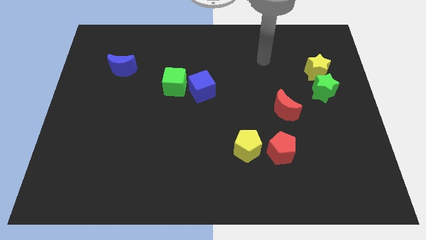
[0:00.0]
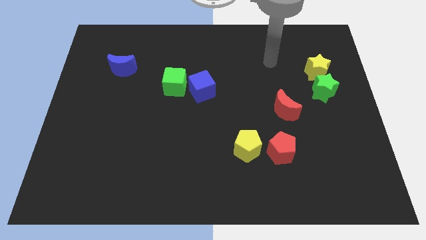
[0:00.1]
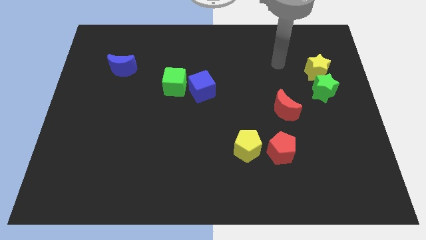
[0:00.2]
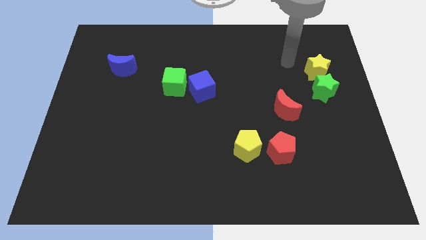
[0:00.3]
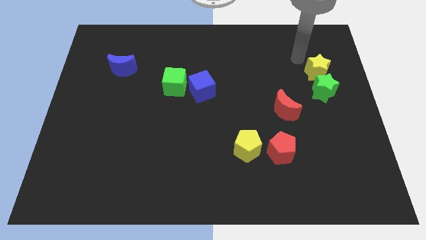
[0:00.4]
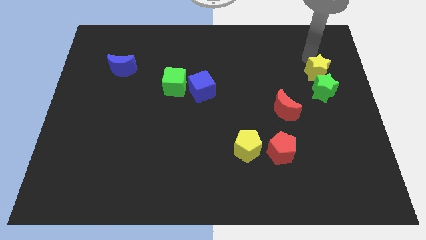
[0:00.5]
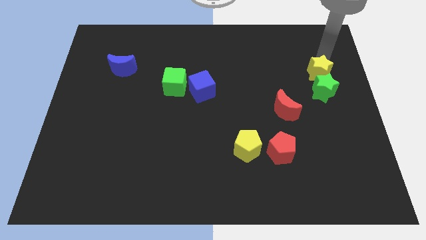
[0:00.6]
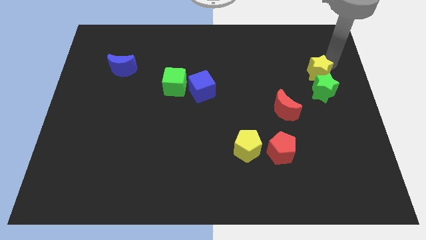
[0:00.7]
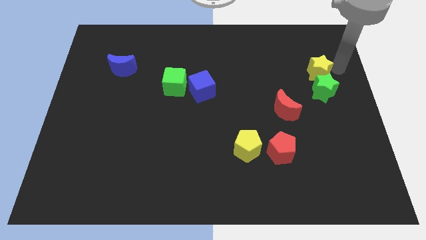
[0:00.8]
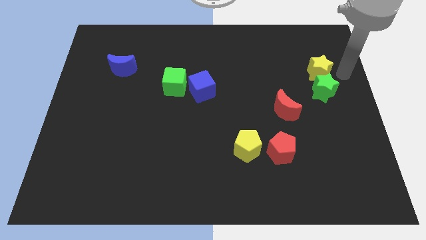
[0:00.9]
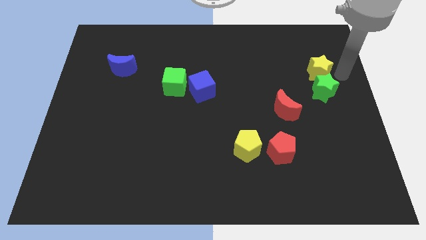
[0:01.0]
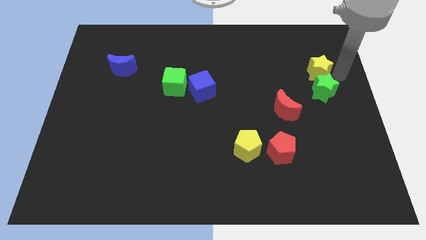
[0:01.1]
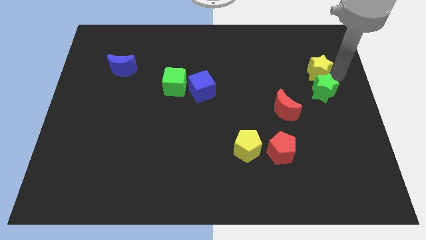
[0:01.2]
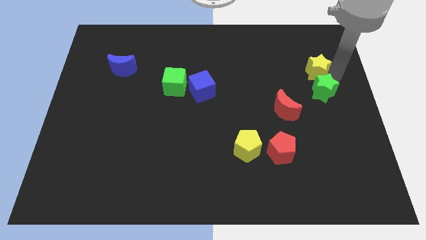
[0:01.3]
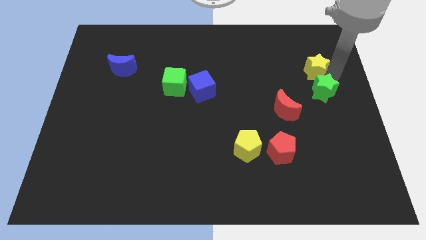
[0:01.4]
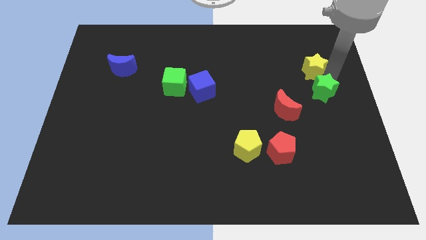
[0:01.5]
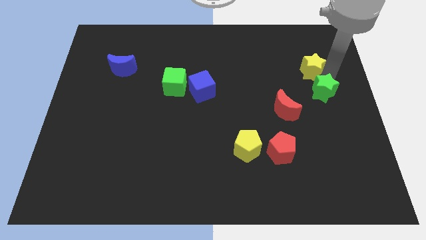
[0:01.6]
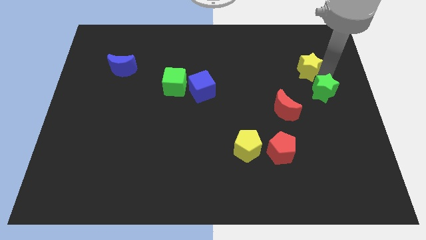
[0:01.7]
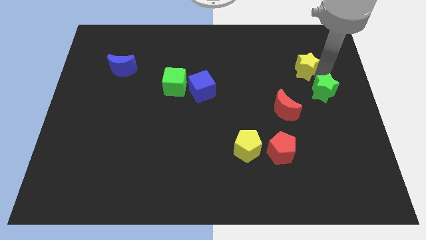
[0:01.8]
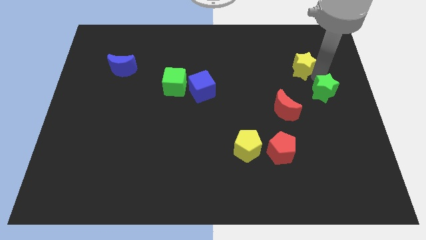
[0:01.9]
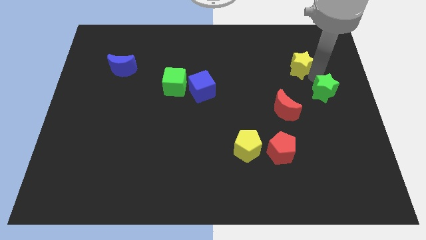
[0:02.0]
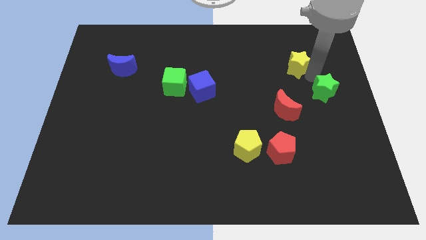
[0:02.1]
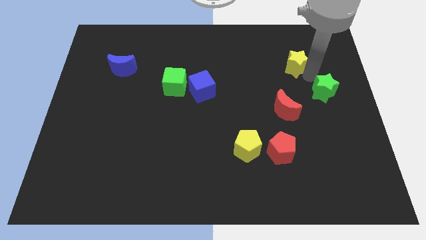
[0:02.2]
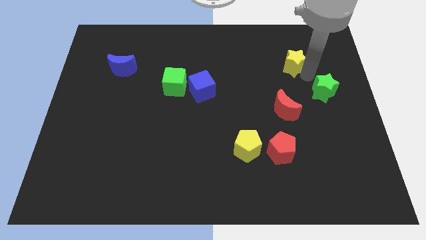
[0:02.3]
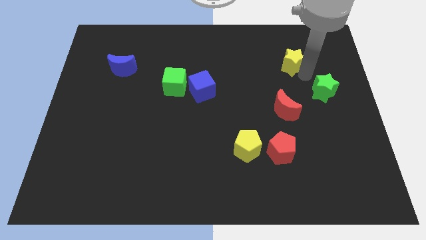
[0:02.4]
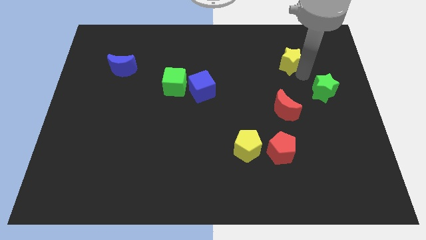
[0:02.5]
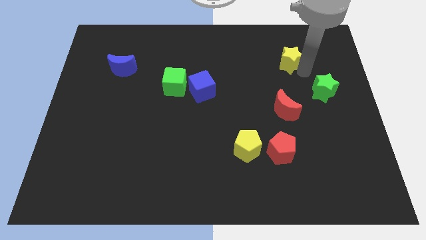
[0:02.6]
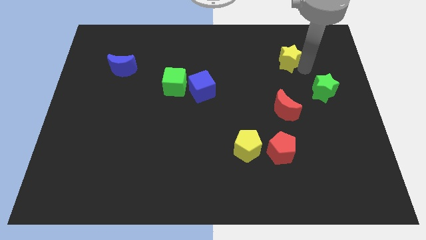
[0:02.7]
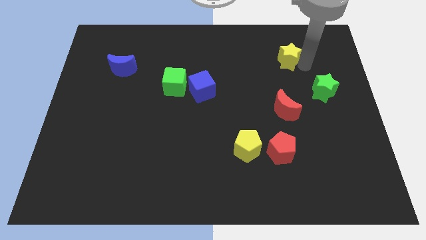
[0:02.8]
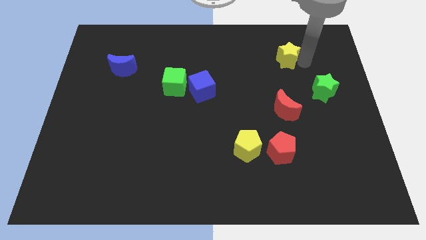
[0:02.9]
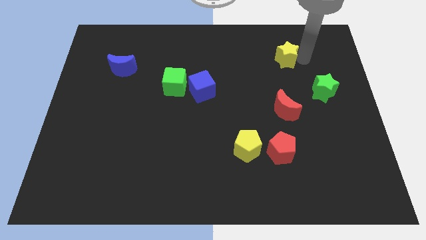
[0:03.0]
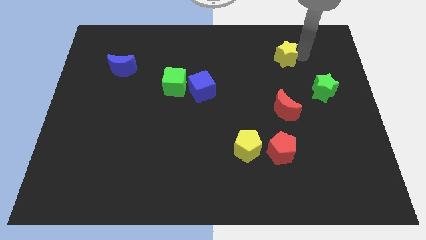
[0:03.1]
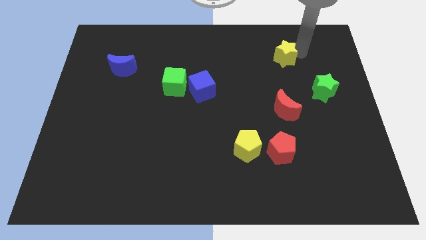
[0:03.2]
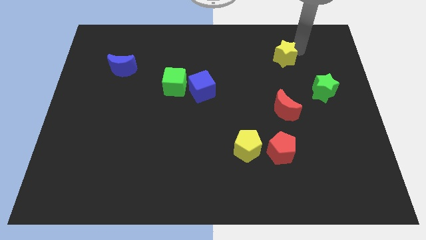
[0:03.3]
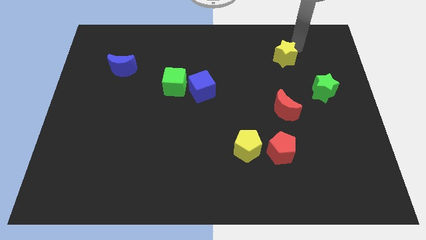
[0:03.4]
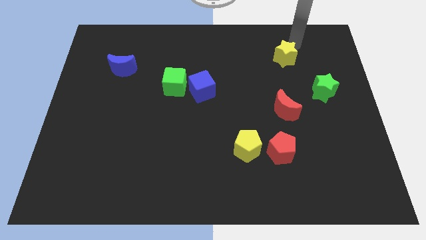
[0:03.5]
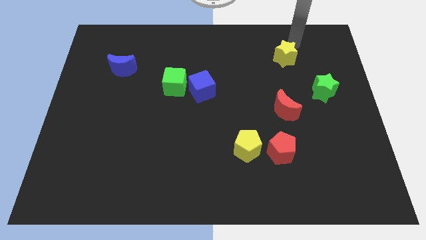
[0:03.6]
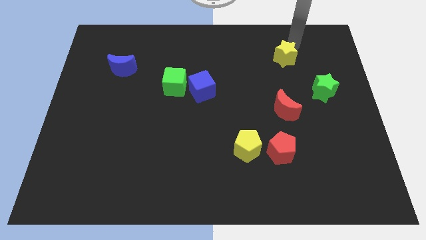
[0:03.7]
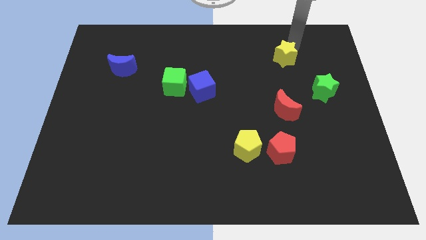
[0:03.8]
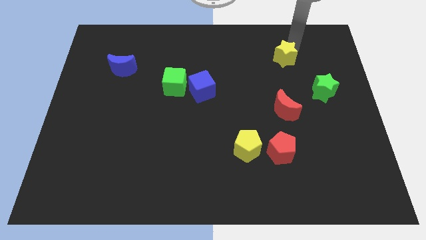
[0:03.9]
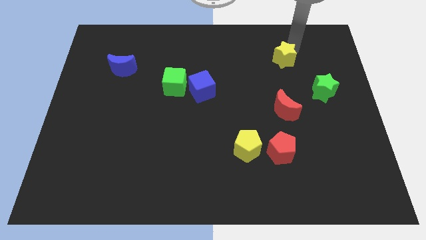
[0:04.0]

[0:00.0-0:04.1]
push the yellow star a little bit left

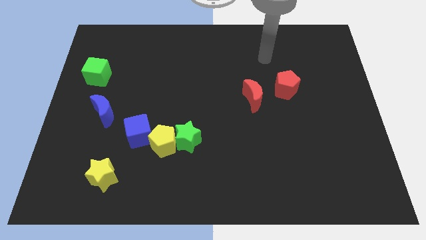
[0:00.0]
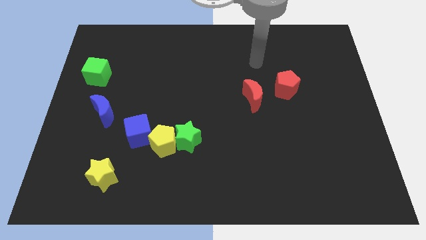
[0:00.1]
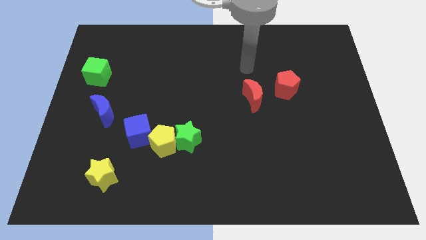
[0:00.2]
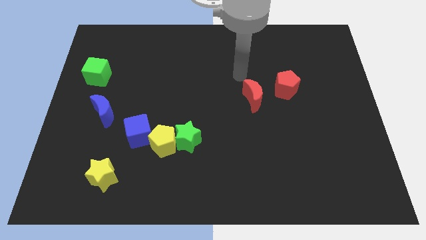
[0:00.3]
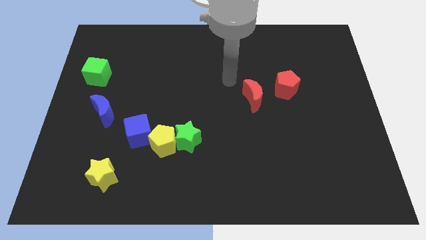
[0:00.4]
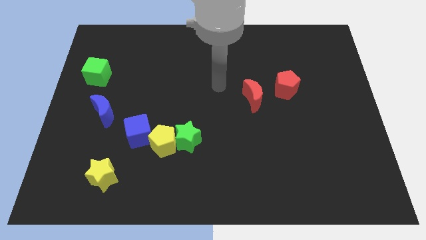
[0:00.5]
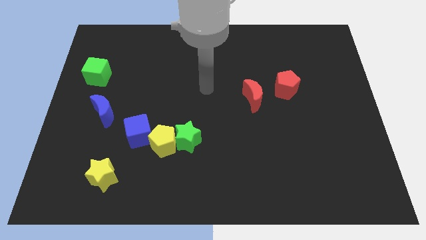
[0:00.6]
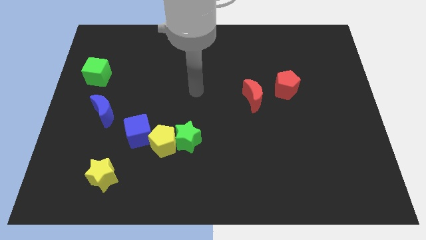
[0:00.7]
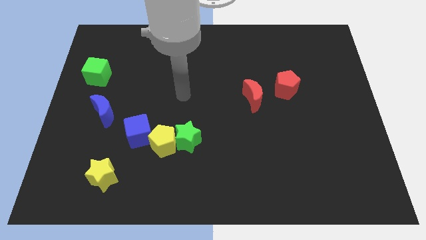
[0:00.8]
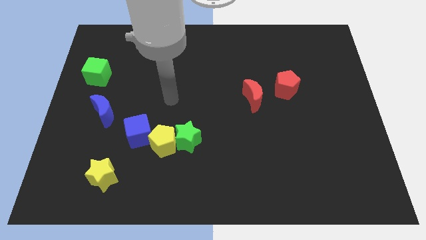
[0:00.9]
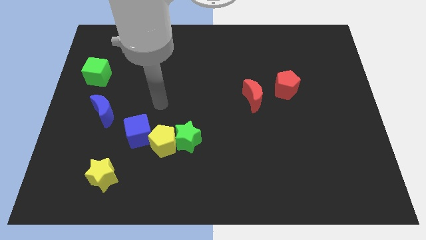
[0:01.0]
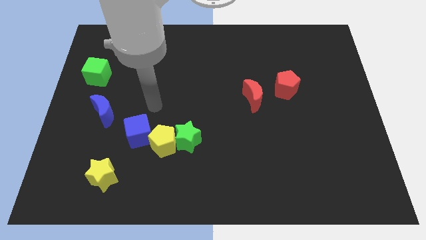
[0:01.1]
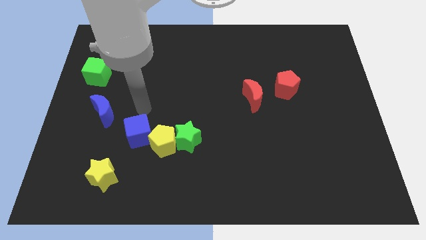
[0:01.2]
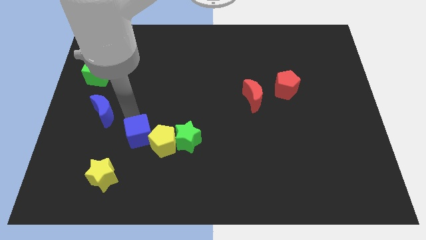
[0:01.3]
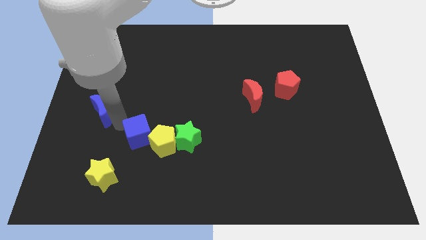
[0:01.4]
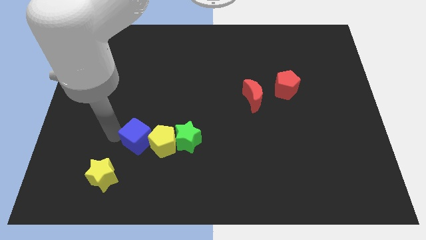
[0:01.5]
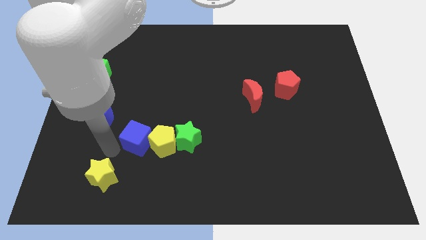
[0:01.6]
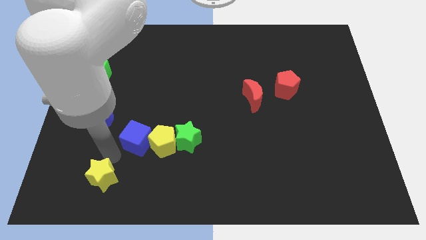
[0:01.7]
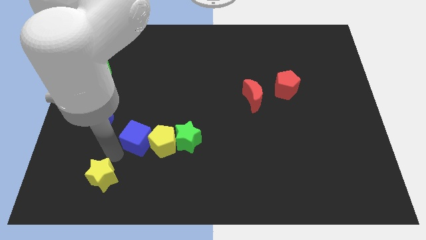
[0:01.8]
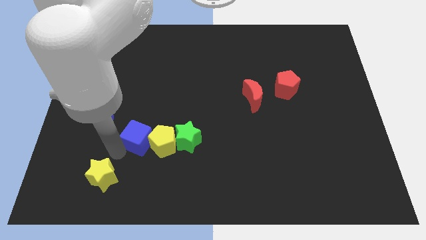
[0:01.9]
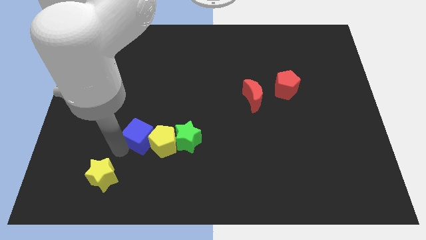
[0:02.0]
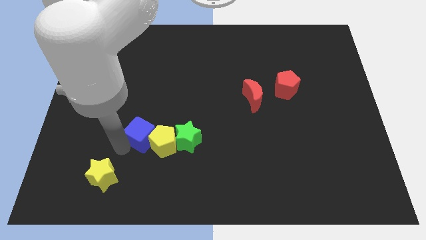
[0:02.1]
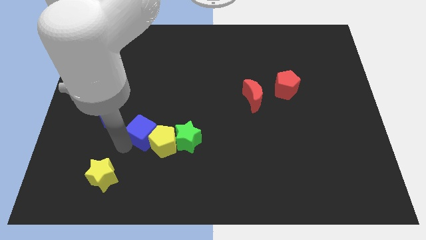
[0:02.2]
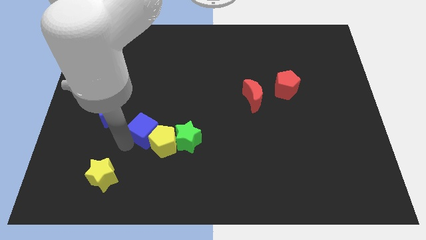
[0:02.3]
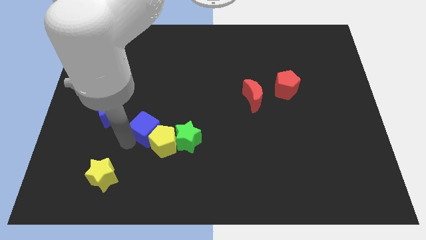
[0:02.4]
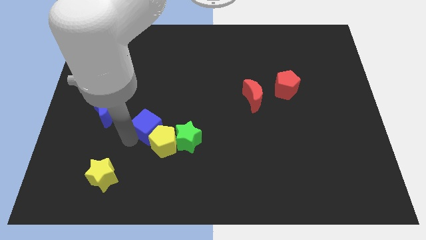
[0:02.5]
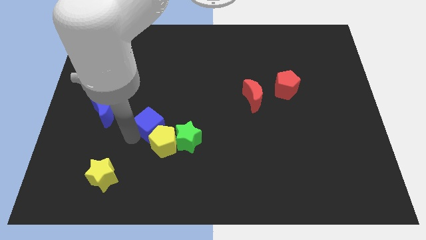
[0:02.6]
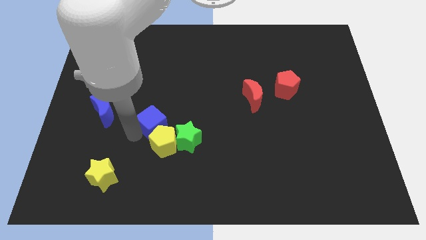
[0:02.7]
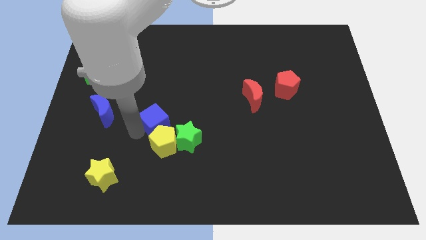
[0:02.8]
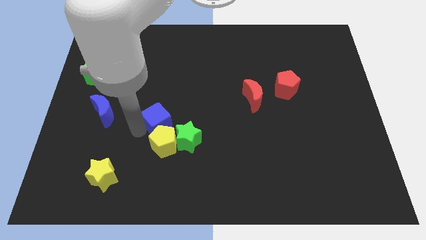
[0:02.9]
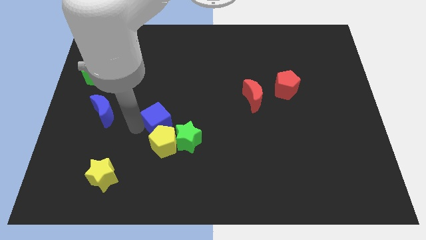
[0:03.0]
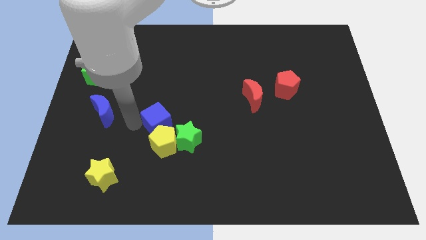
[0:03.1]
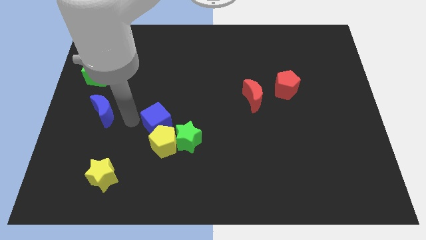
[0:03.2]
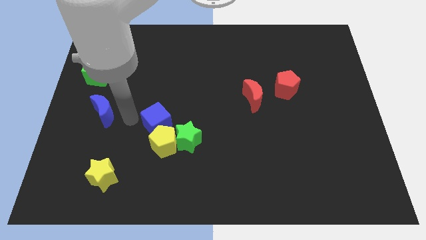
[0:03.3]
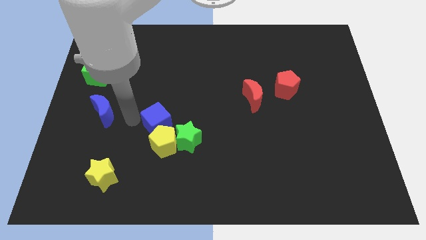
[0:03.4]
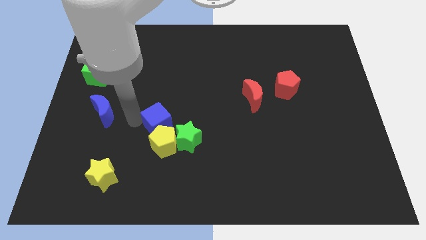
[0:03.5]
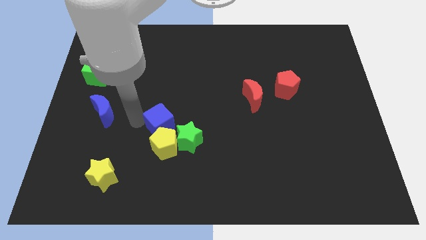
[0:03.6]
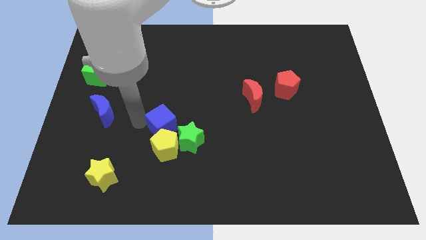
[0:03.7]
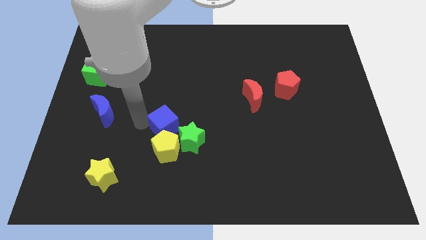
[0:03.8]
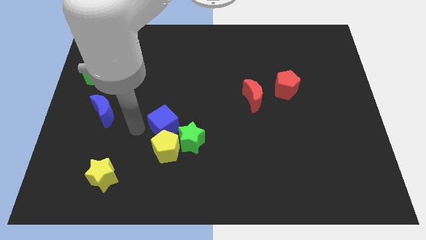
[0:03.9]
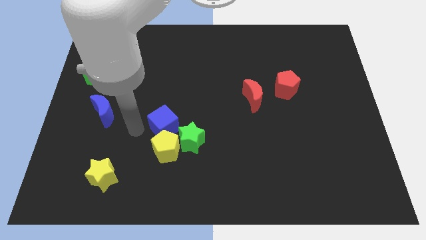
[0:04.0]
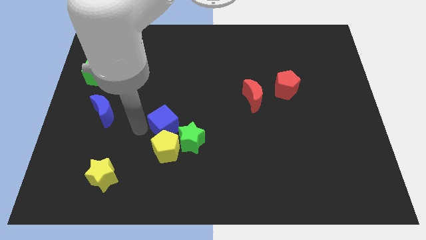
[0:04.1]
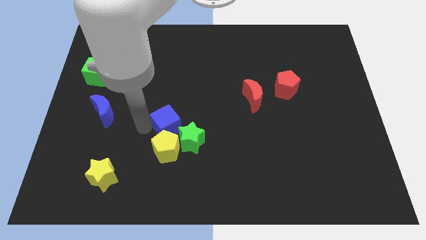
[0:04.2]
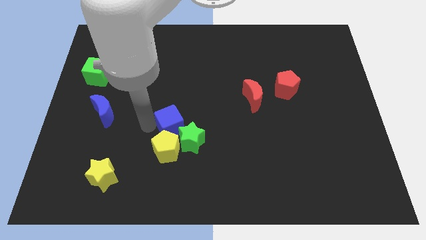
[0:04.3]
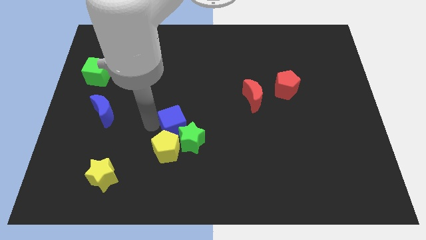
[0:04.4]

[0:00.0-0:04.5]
slide the blue cube somewhat to the right
